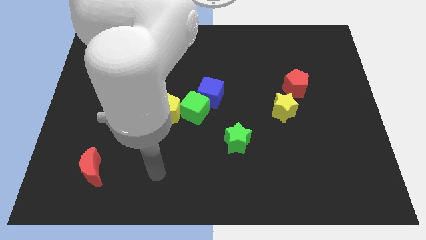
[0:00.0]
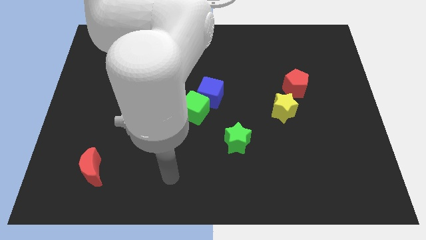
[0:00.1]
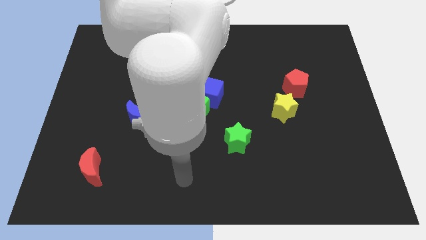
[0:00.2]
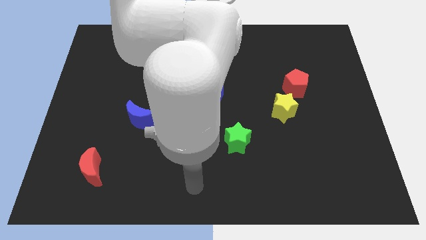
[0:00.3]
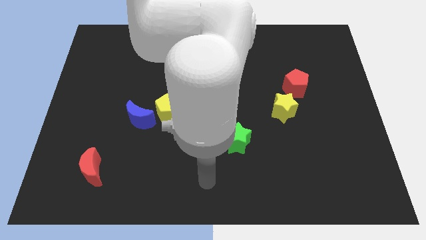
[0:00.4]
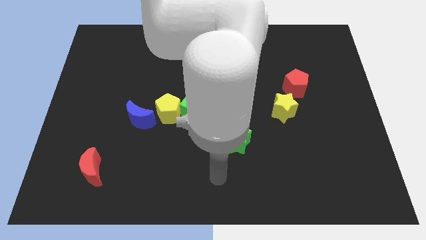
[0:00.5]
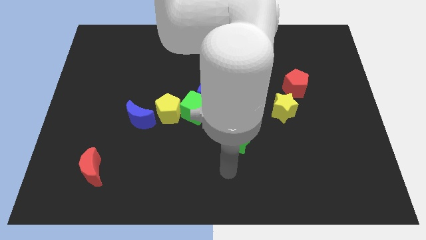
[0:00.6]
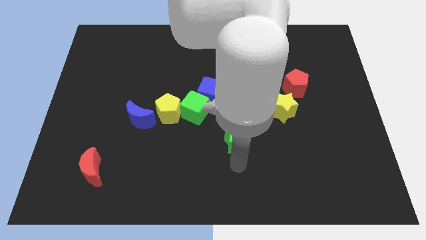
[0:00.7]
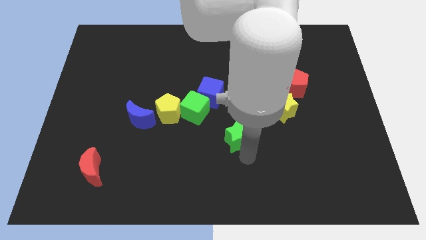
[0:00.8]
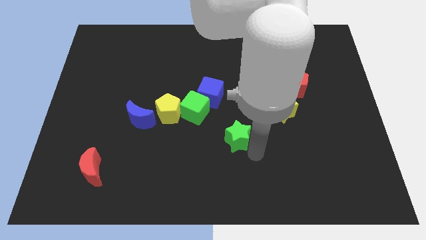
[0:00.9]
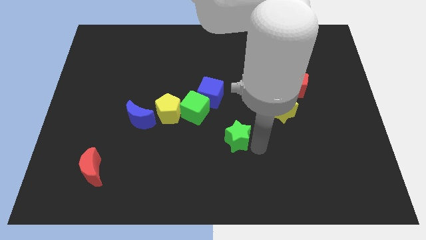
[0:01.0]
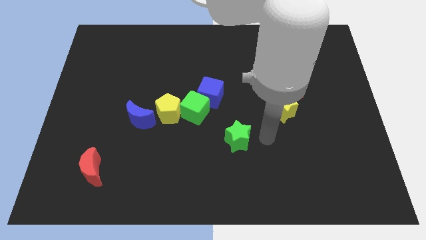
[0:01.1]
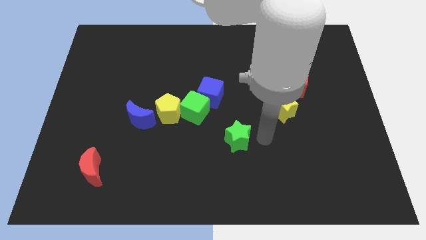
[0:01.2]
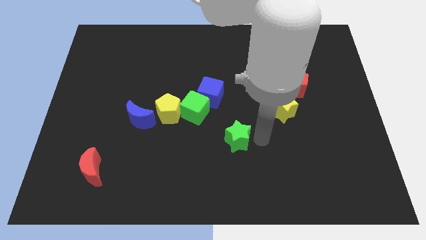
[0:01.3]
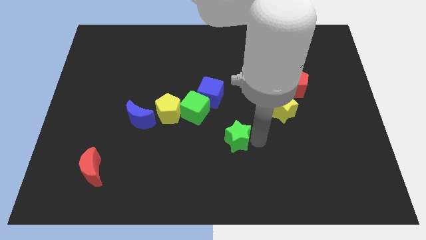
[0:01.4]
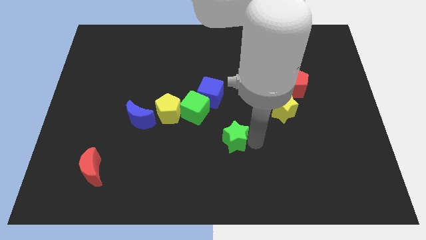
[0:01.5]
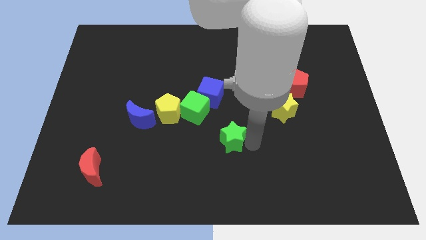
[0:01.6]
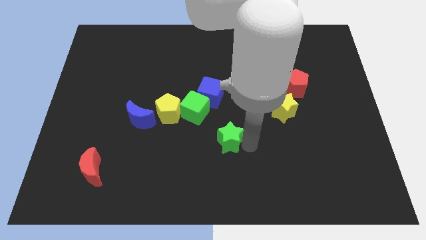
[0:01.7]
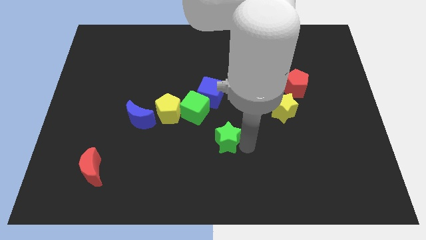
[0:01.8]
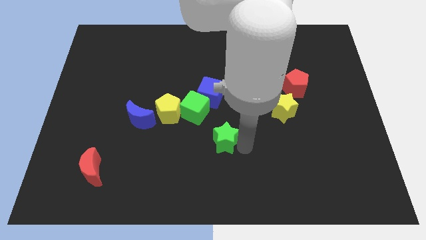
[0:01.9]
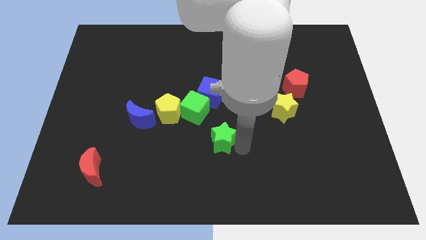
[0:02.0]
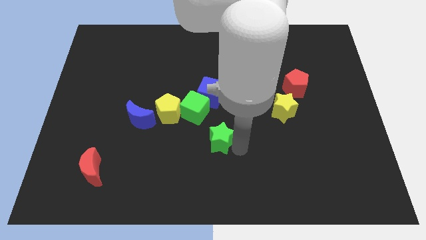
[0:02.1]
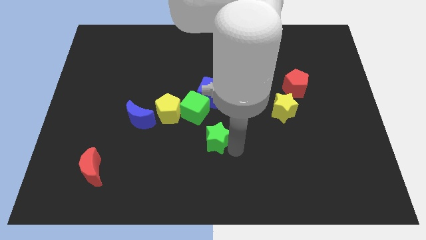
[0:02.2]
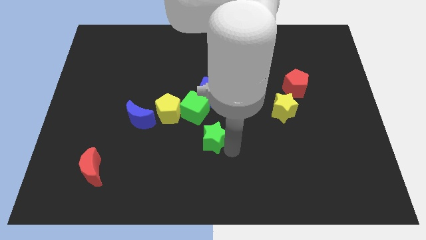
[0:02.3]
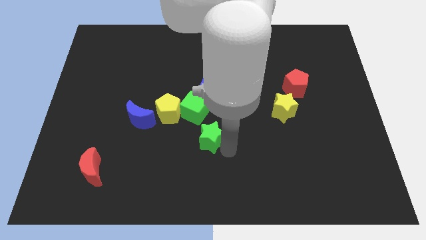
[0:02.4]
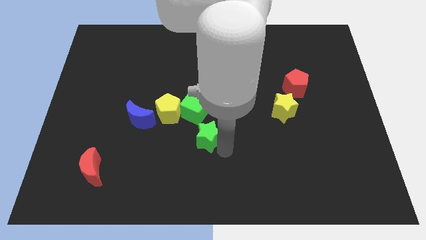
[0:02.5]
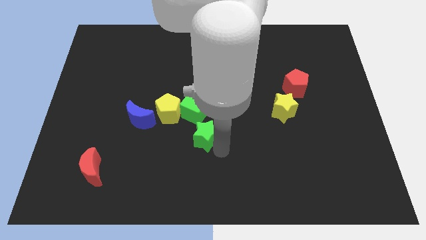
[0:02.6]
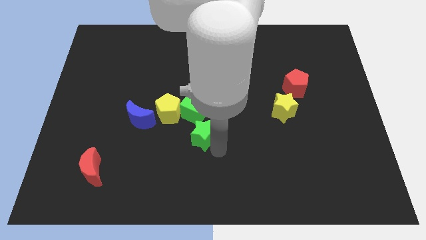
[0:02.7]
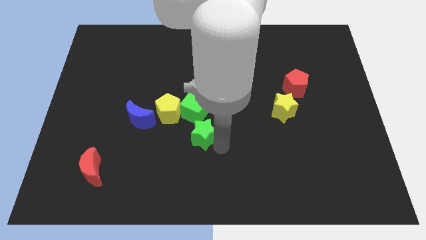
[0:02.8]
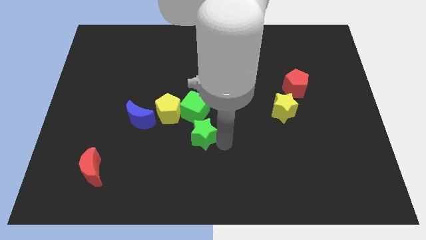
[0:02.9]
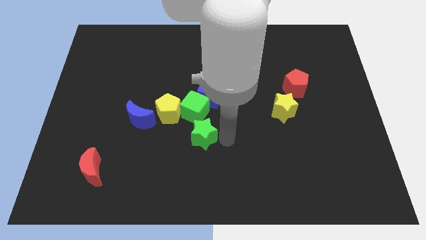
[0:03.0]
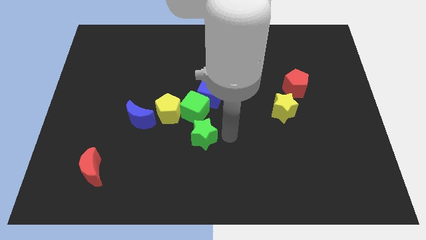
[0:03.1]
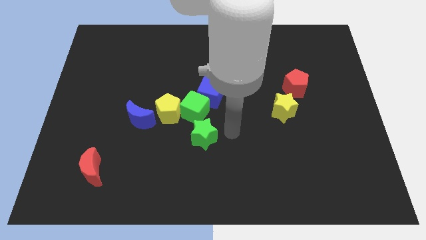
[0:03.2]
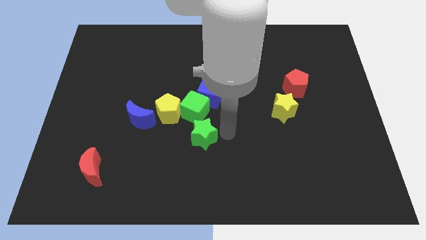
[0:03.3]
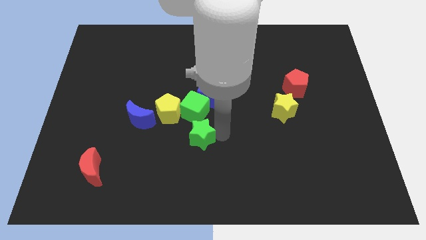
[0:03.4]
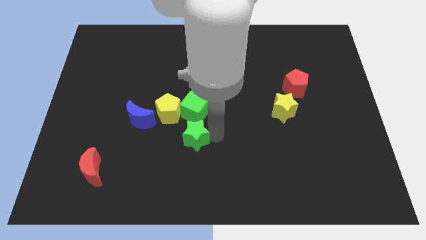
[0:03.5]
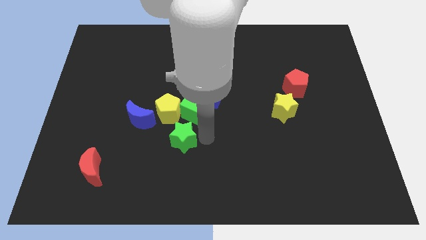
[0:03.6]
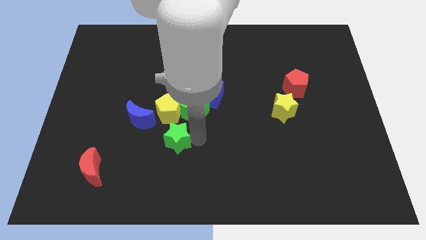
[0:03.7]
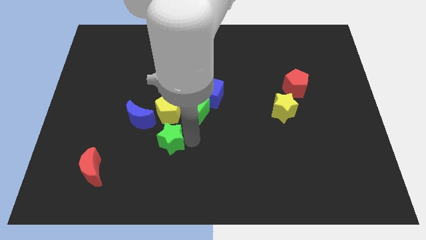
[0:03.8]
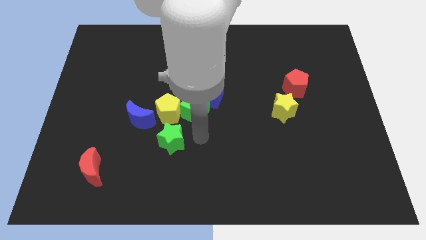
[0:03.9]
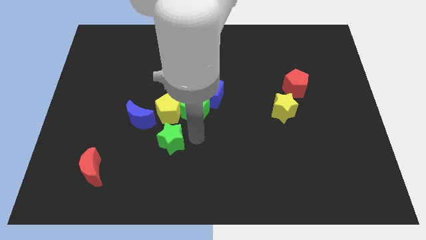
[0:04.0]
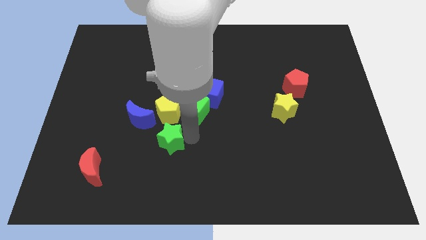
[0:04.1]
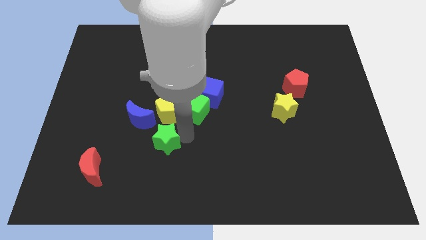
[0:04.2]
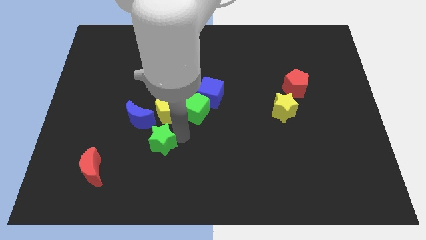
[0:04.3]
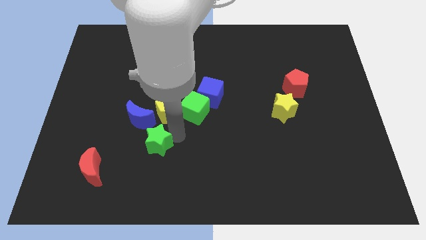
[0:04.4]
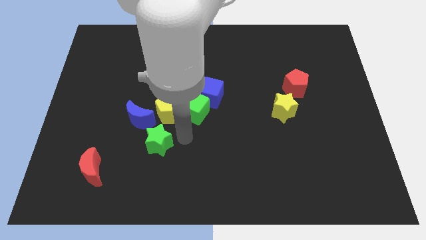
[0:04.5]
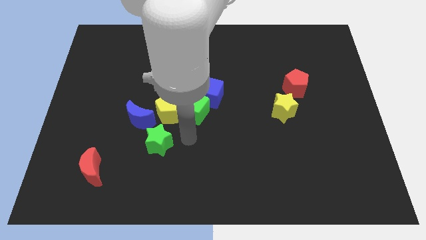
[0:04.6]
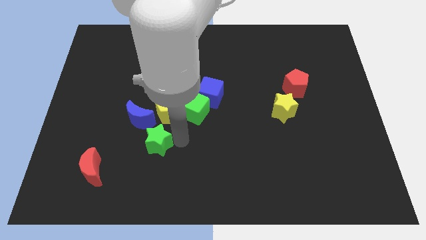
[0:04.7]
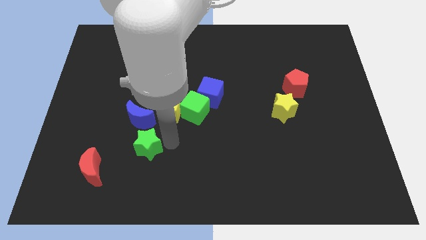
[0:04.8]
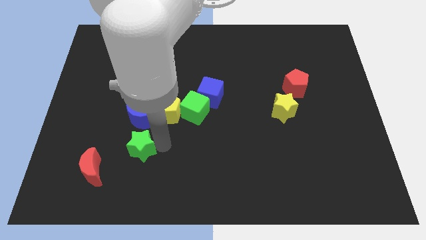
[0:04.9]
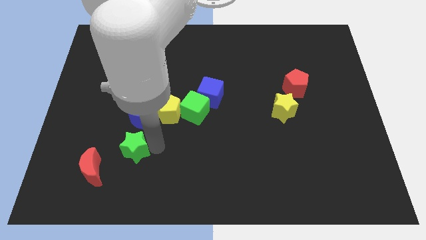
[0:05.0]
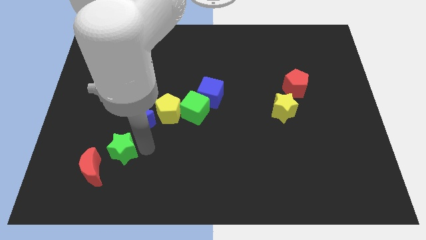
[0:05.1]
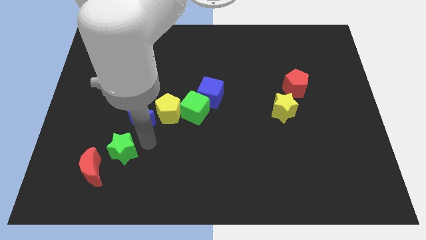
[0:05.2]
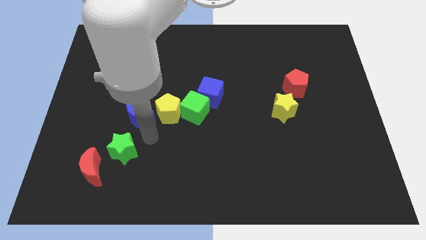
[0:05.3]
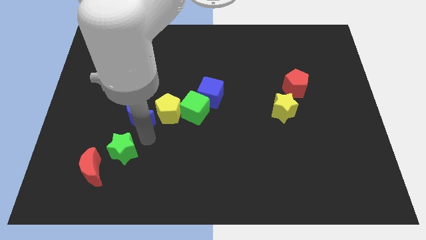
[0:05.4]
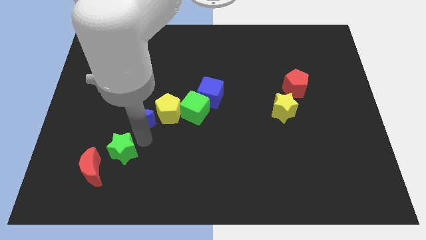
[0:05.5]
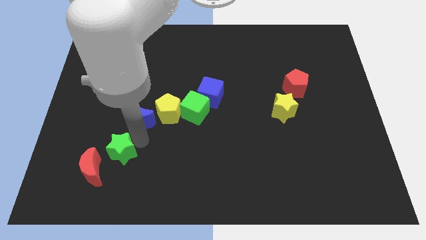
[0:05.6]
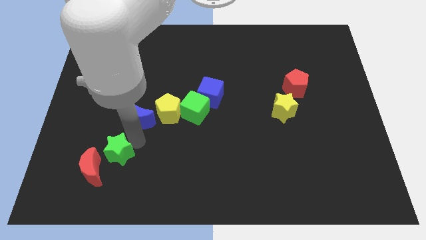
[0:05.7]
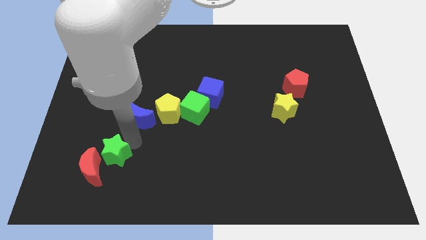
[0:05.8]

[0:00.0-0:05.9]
put the green star close to the red moon

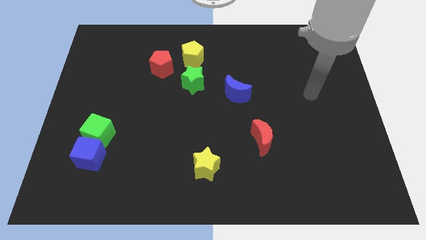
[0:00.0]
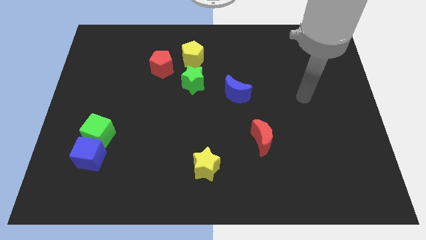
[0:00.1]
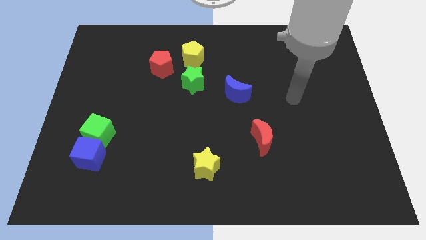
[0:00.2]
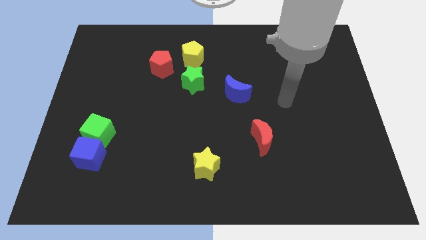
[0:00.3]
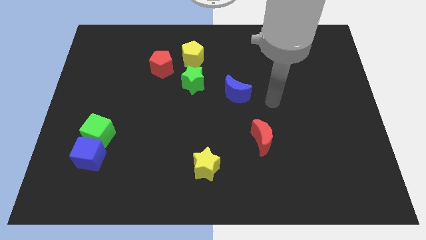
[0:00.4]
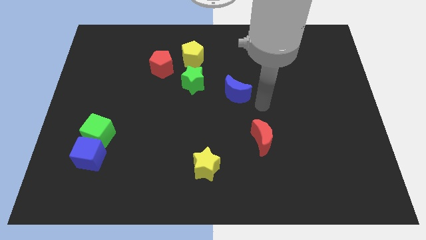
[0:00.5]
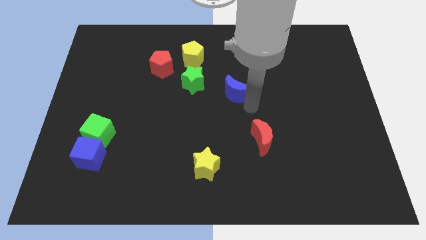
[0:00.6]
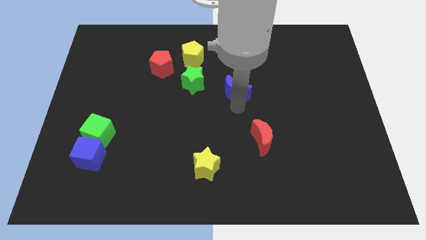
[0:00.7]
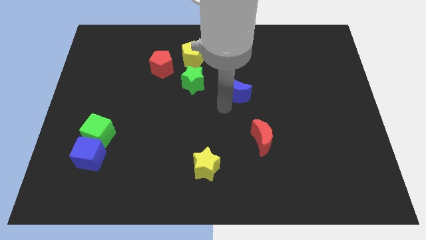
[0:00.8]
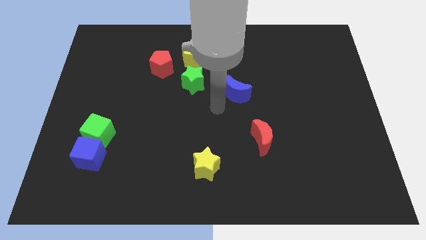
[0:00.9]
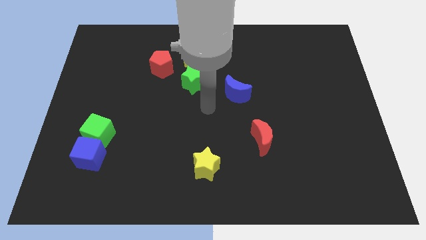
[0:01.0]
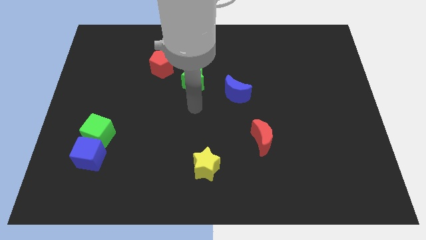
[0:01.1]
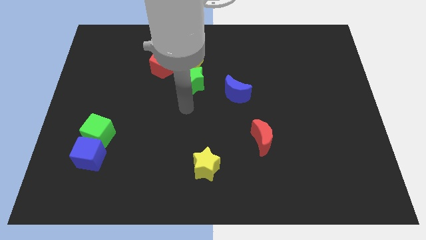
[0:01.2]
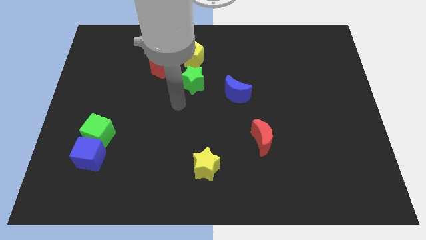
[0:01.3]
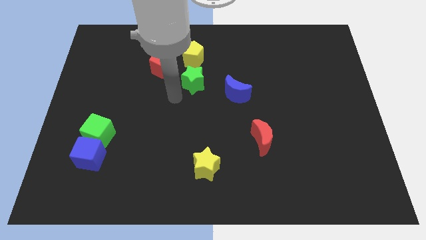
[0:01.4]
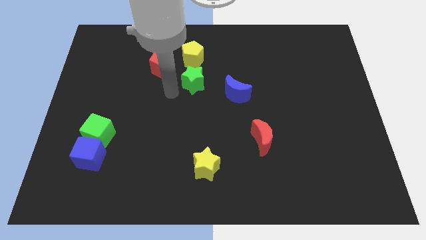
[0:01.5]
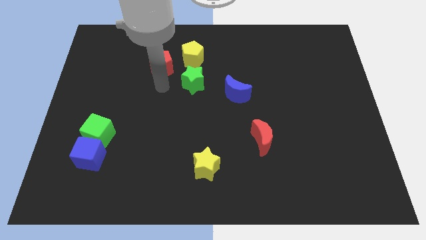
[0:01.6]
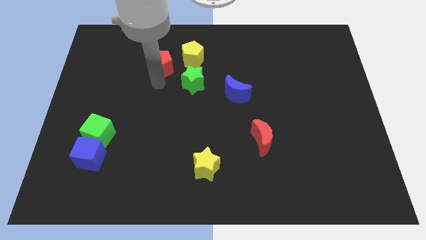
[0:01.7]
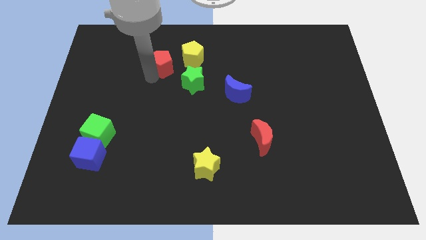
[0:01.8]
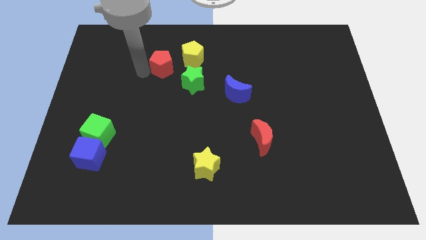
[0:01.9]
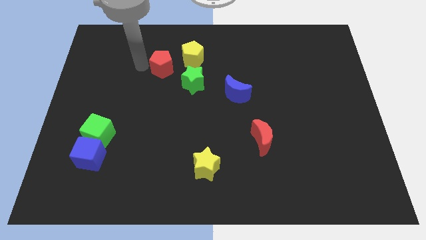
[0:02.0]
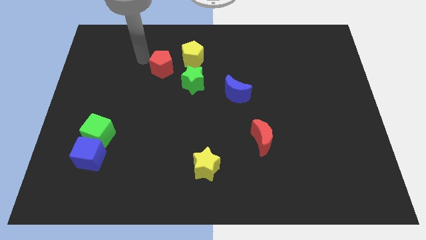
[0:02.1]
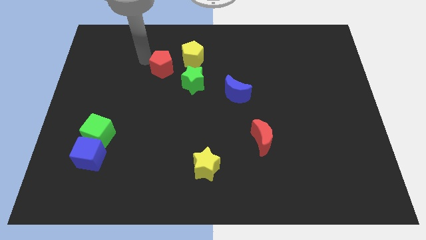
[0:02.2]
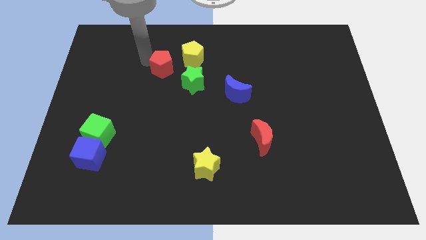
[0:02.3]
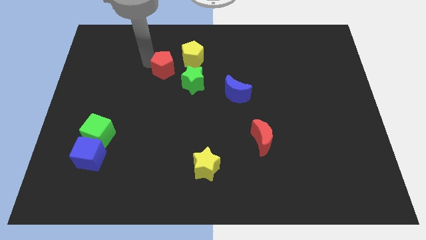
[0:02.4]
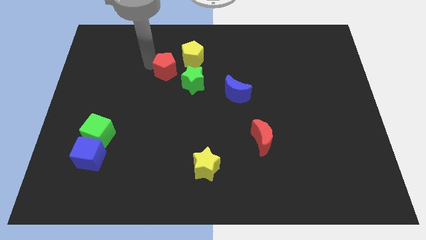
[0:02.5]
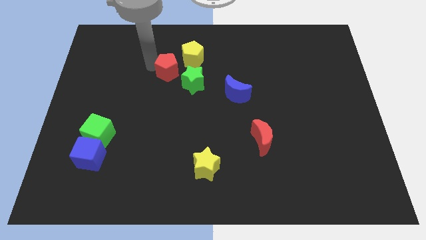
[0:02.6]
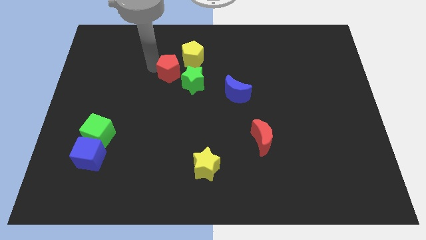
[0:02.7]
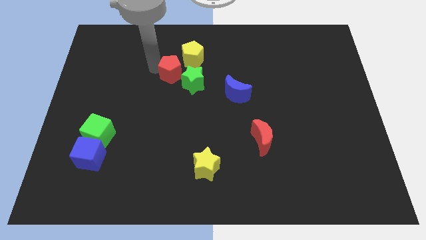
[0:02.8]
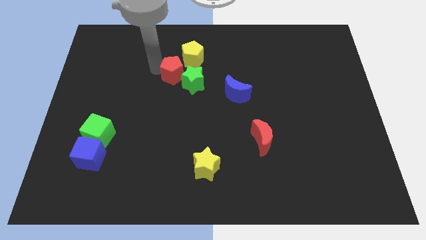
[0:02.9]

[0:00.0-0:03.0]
slide the red pentagon close to the green star
